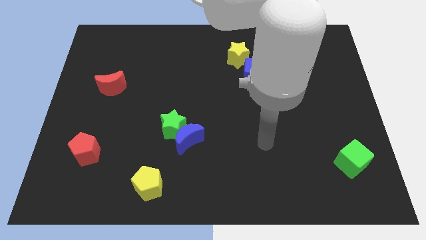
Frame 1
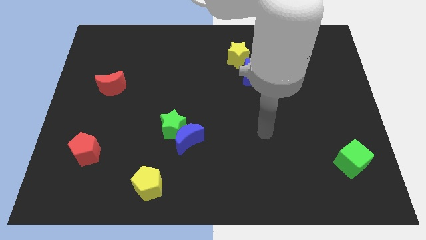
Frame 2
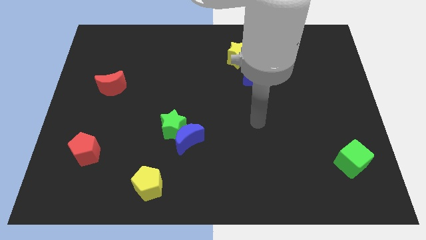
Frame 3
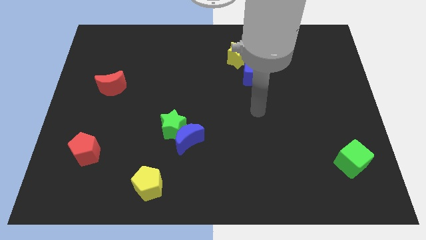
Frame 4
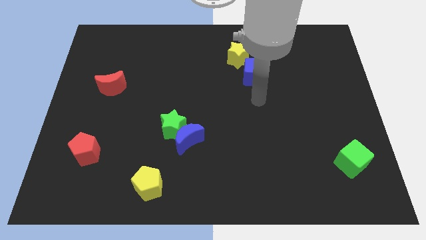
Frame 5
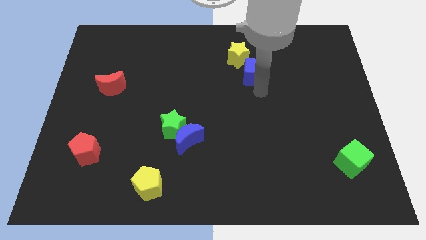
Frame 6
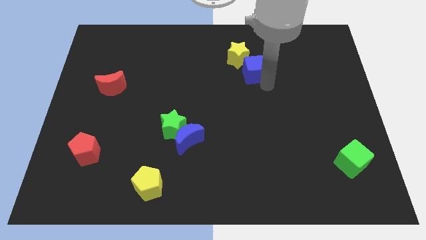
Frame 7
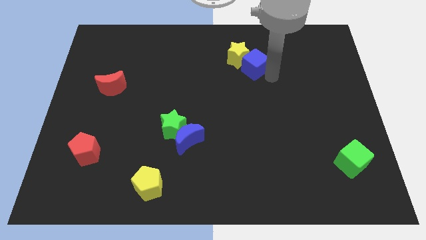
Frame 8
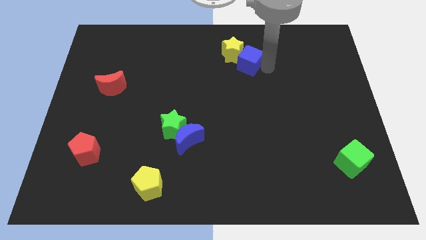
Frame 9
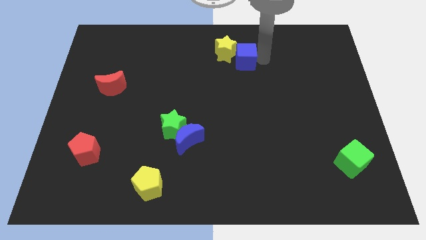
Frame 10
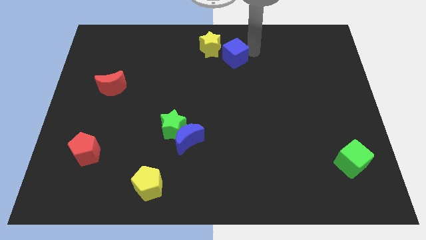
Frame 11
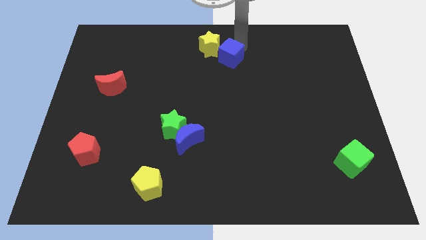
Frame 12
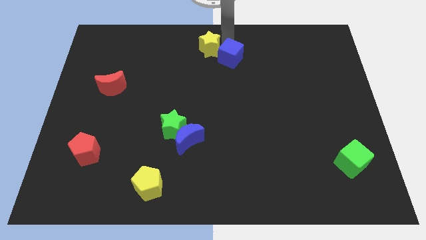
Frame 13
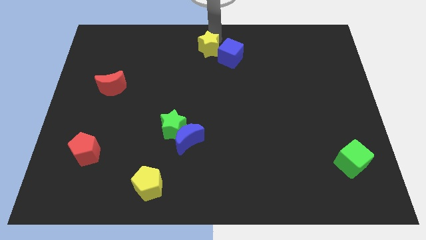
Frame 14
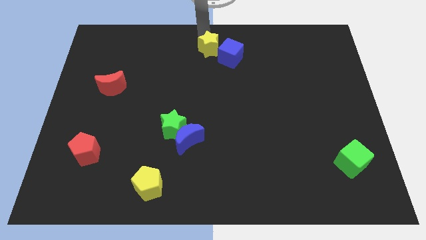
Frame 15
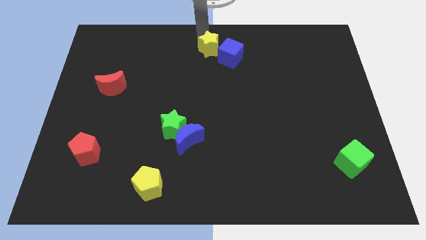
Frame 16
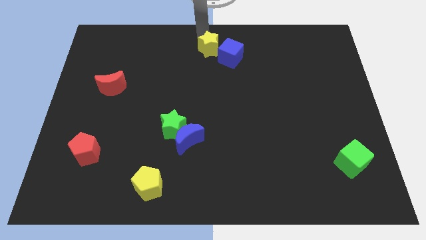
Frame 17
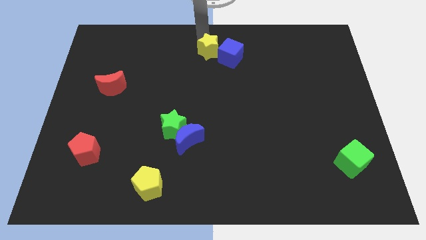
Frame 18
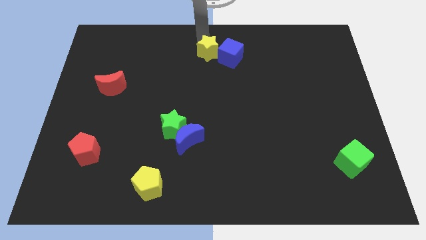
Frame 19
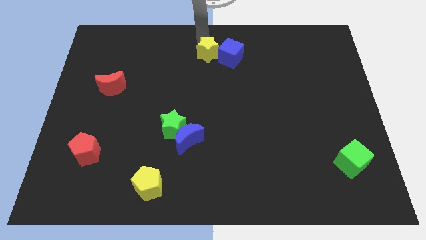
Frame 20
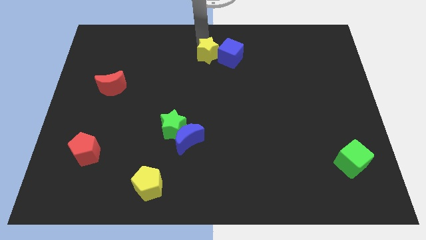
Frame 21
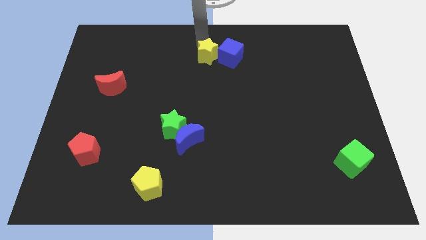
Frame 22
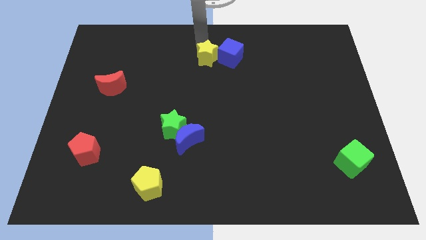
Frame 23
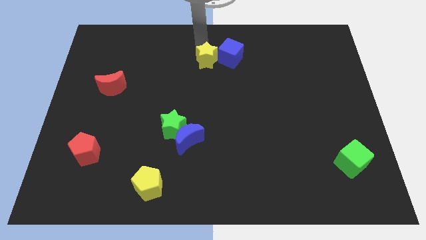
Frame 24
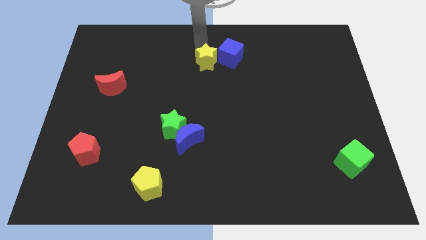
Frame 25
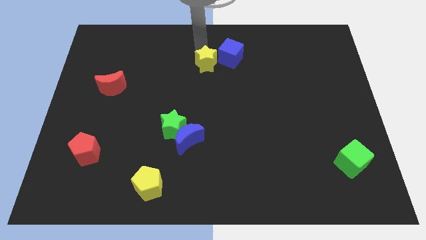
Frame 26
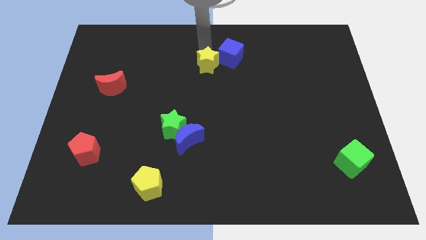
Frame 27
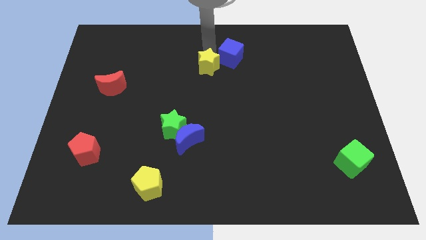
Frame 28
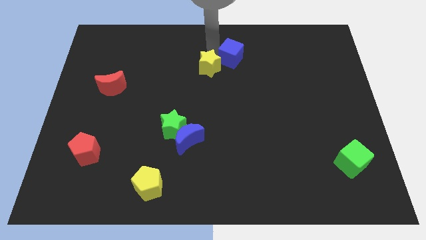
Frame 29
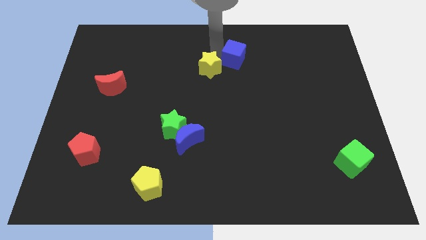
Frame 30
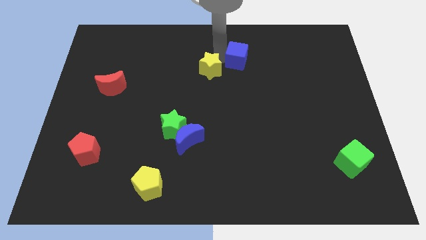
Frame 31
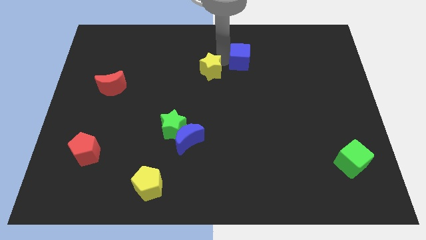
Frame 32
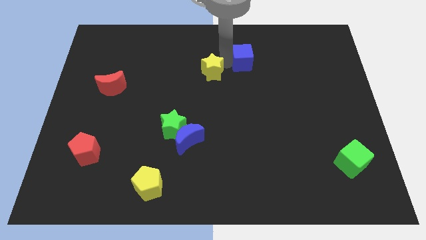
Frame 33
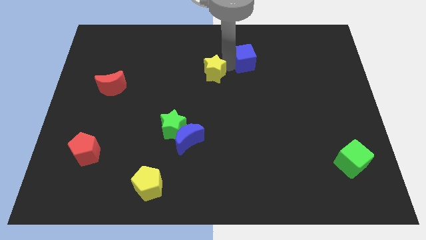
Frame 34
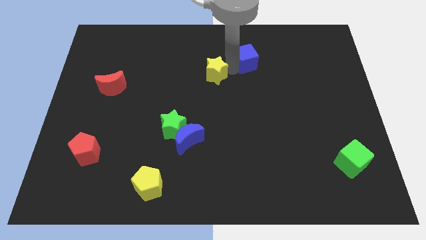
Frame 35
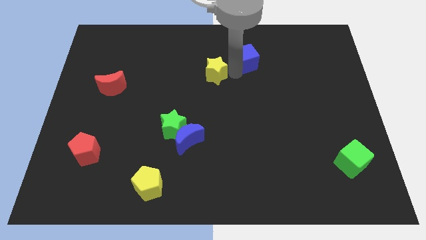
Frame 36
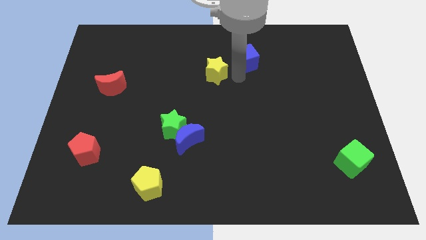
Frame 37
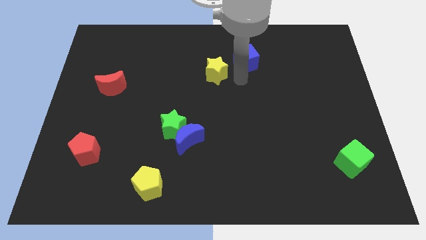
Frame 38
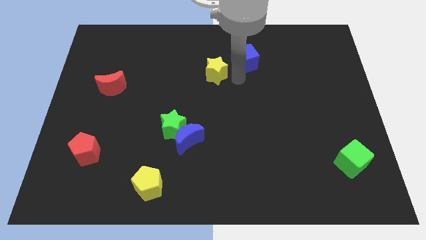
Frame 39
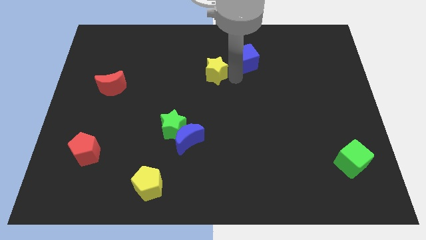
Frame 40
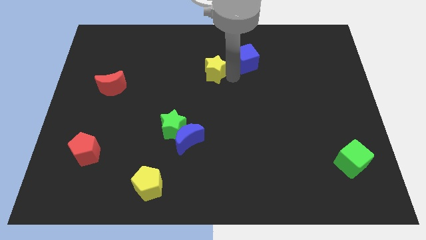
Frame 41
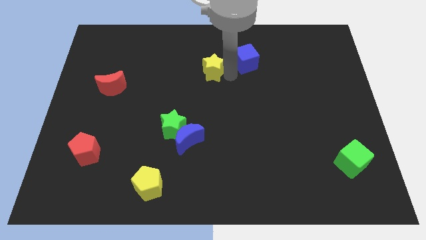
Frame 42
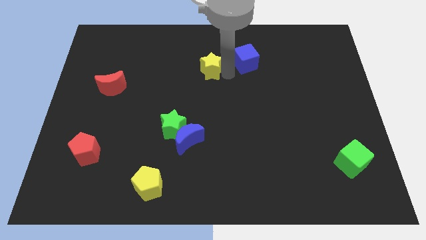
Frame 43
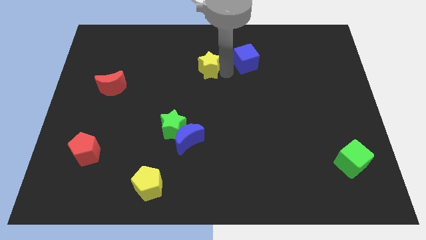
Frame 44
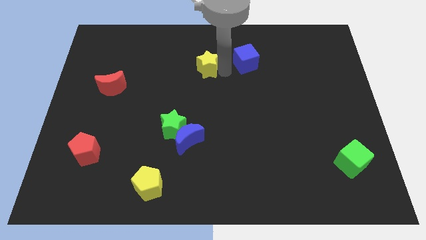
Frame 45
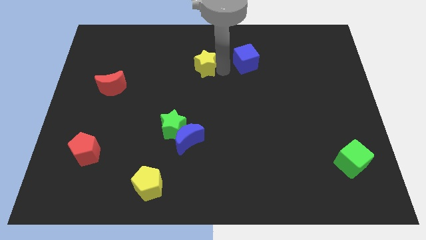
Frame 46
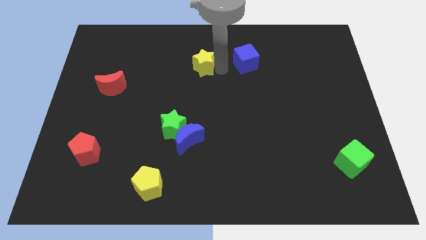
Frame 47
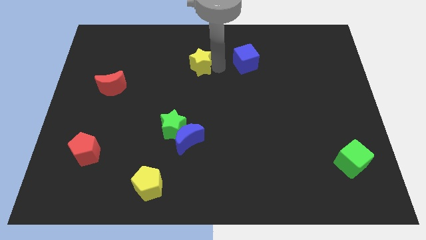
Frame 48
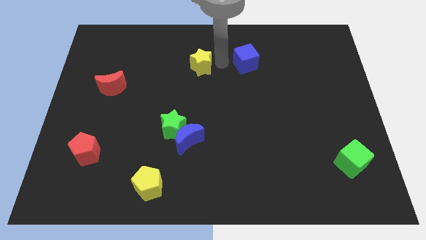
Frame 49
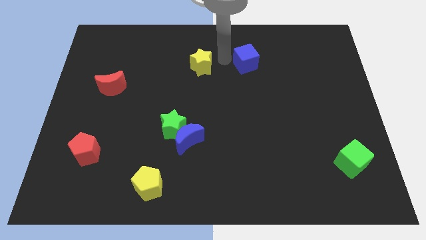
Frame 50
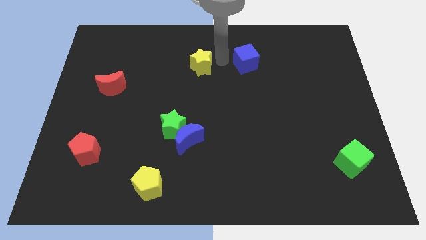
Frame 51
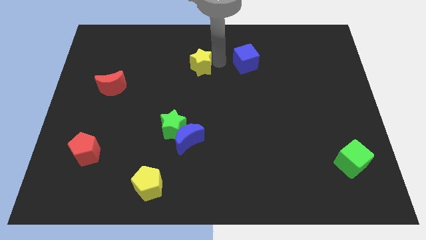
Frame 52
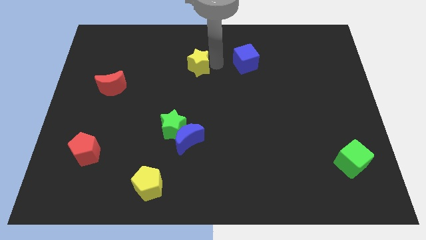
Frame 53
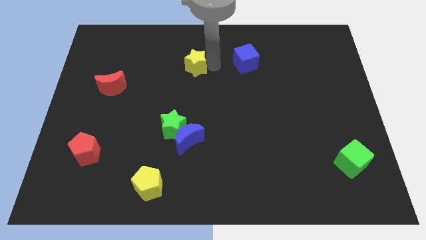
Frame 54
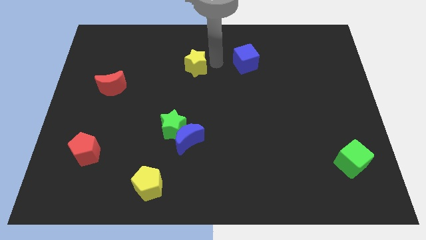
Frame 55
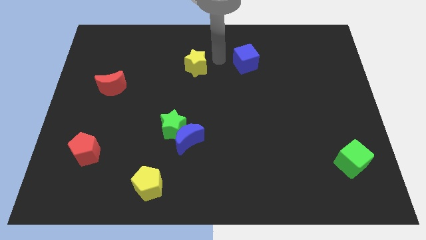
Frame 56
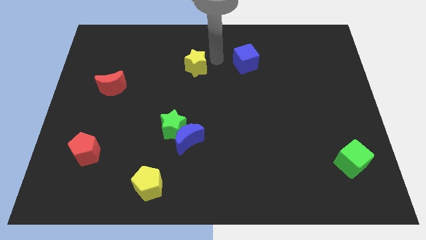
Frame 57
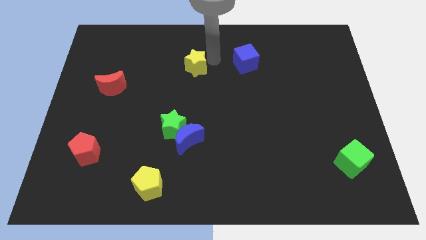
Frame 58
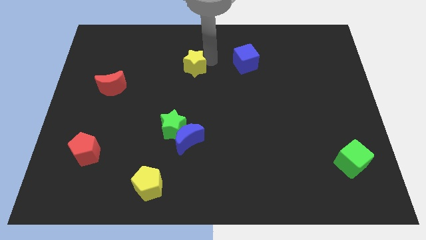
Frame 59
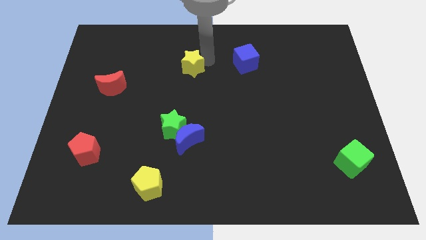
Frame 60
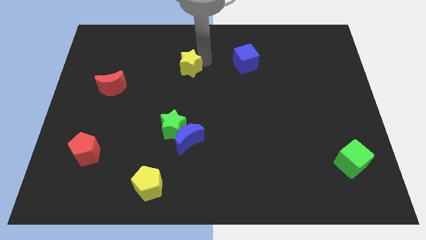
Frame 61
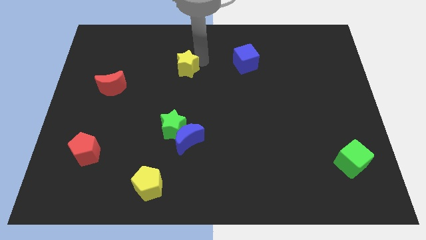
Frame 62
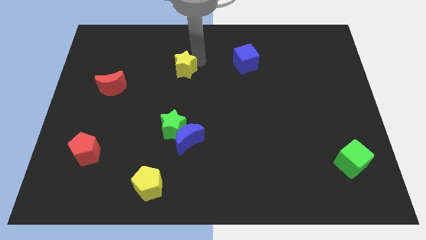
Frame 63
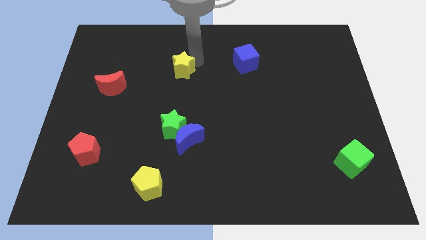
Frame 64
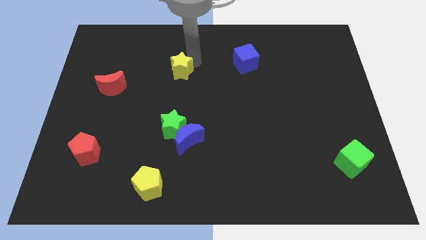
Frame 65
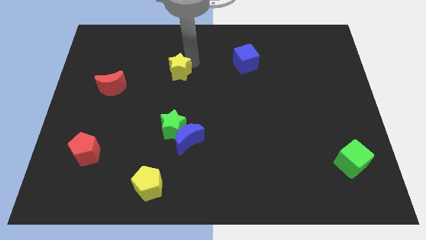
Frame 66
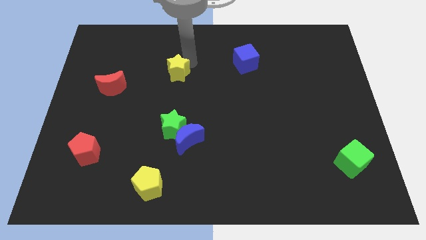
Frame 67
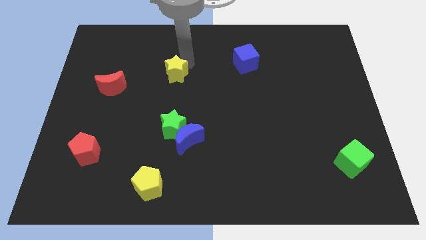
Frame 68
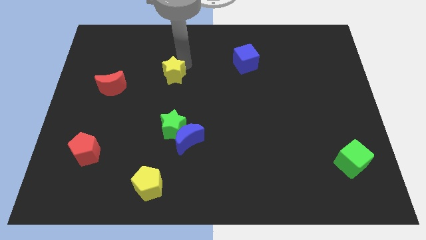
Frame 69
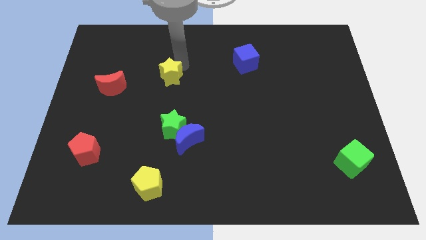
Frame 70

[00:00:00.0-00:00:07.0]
move the yellow star right of the red moon

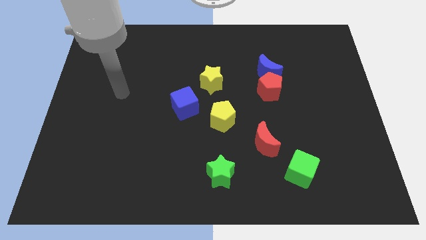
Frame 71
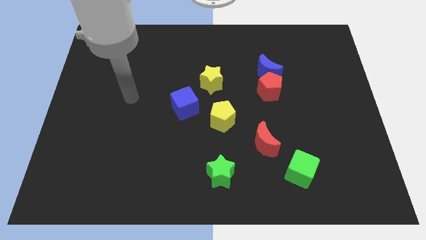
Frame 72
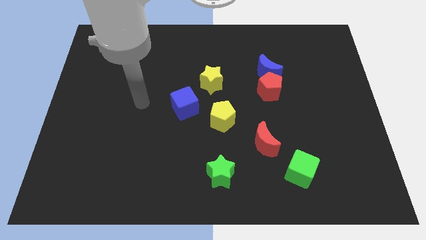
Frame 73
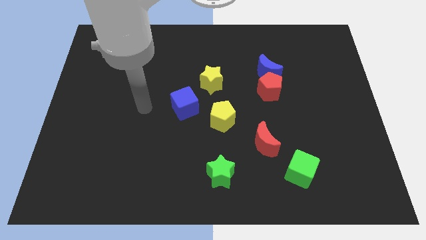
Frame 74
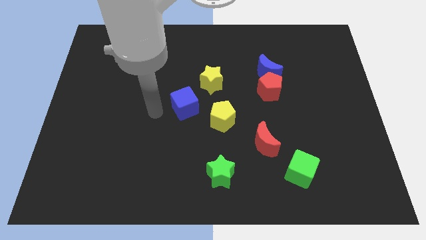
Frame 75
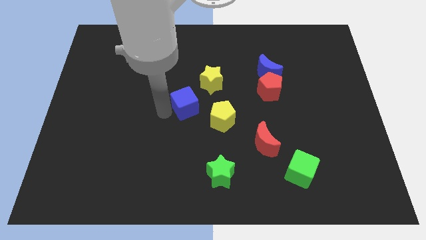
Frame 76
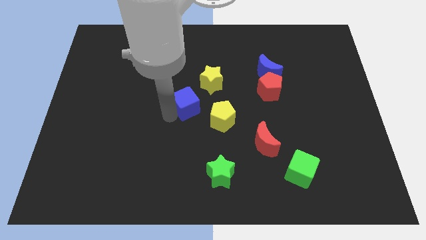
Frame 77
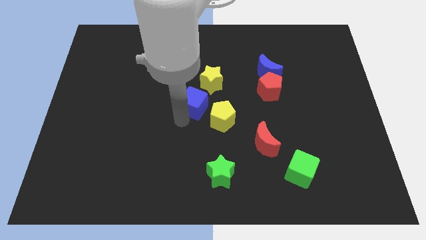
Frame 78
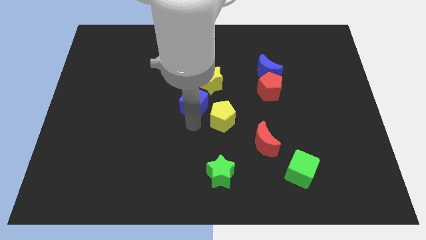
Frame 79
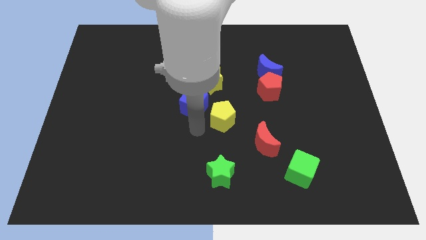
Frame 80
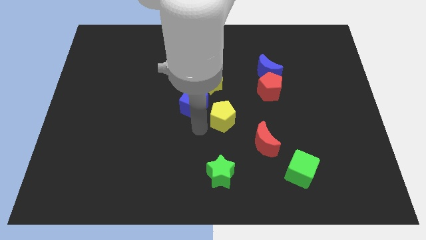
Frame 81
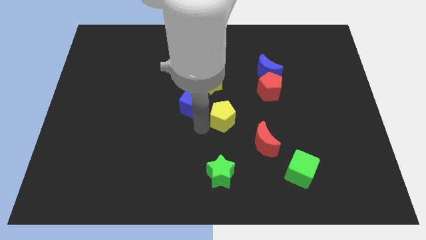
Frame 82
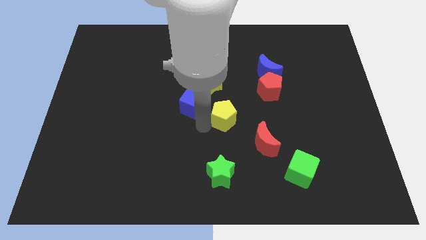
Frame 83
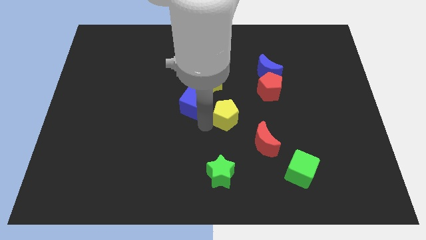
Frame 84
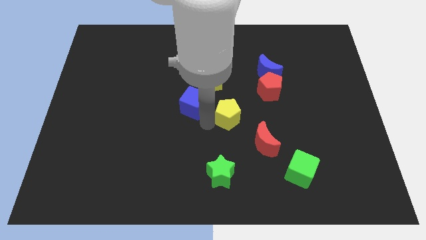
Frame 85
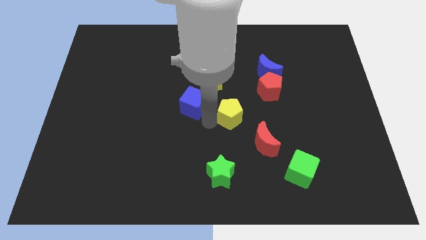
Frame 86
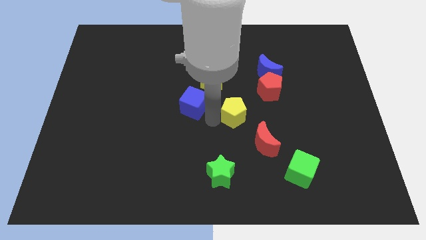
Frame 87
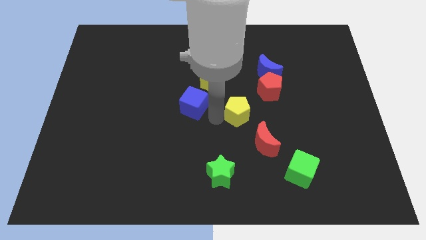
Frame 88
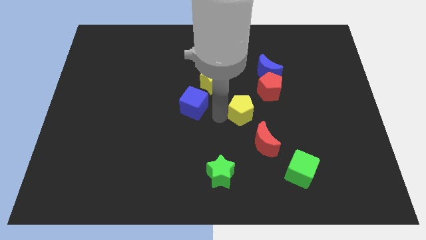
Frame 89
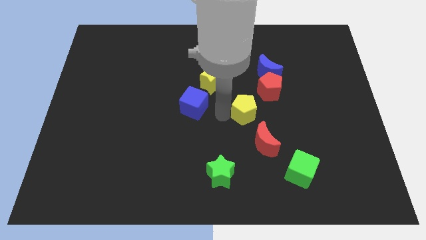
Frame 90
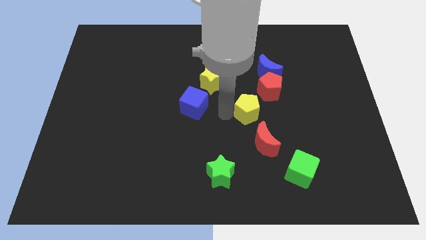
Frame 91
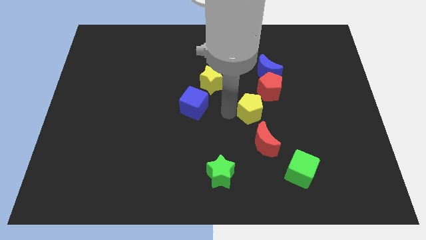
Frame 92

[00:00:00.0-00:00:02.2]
move the yellow pentagon below the blue moon
